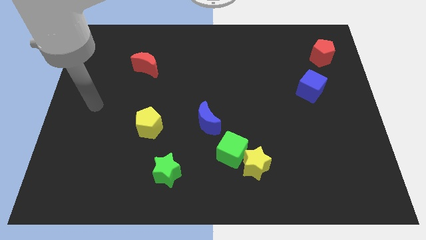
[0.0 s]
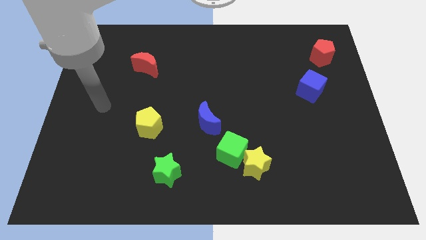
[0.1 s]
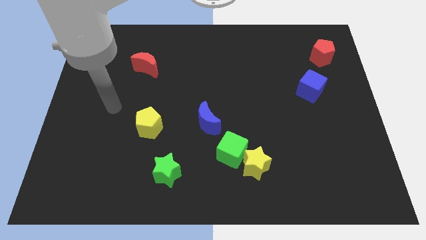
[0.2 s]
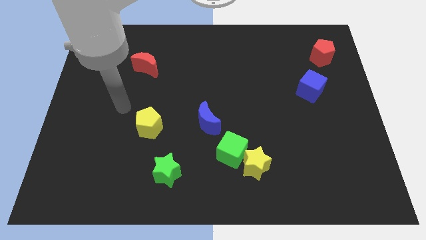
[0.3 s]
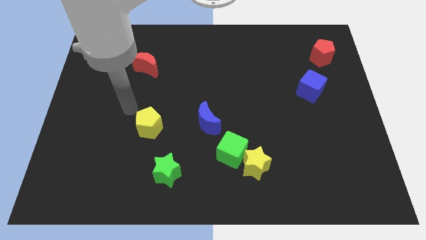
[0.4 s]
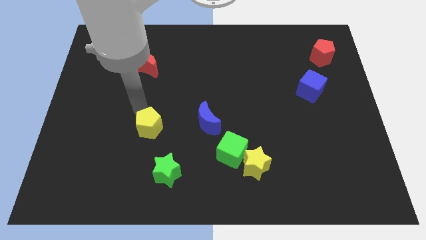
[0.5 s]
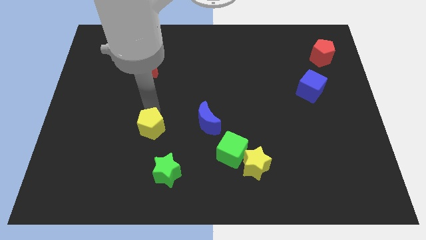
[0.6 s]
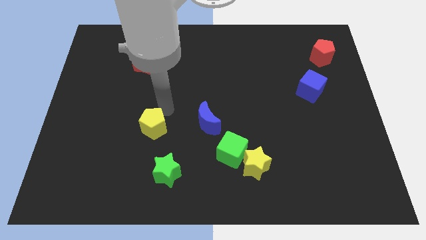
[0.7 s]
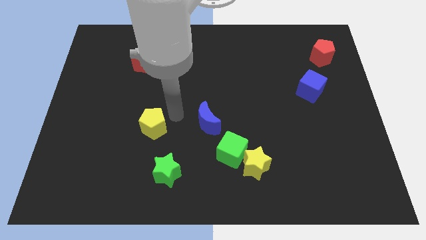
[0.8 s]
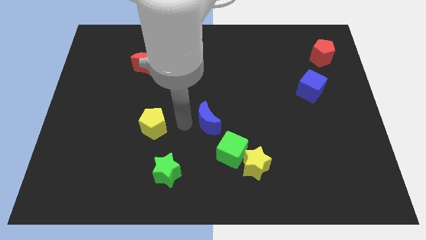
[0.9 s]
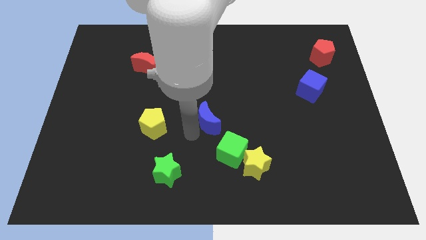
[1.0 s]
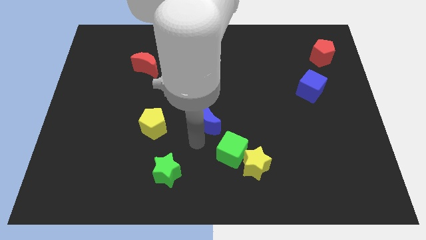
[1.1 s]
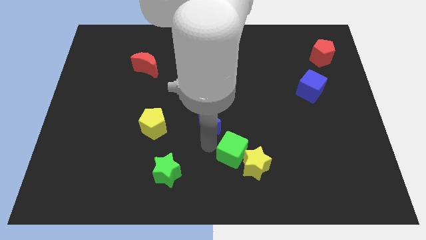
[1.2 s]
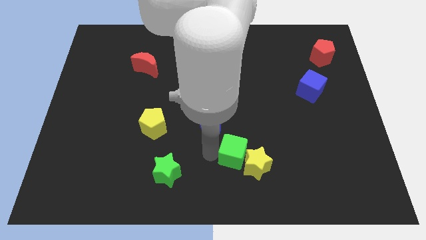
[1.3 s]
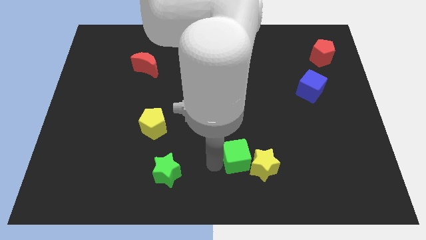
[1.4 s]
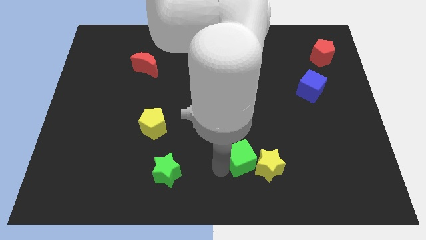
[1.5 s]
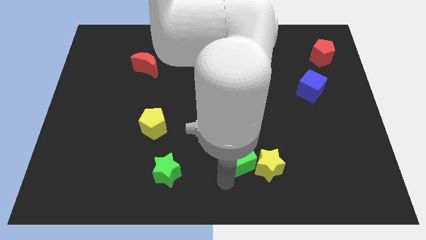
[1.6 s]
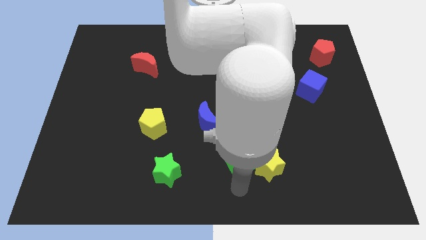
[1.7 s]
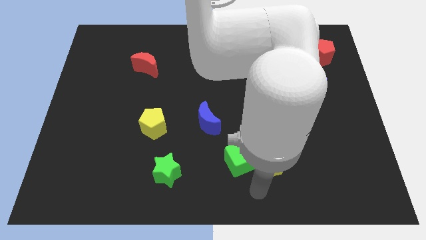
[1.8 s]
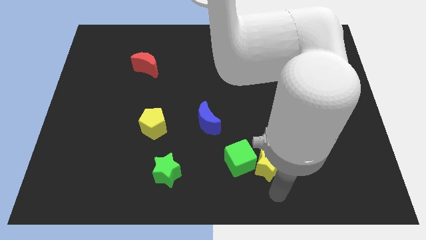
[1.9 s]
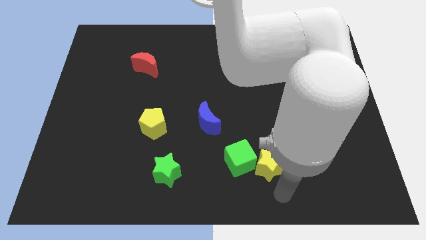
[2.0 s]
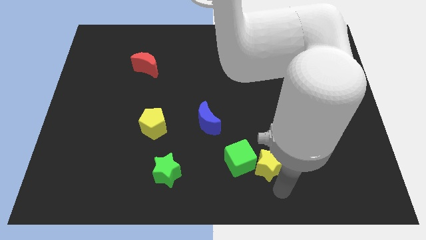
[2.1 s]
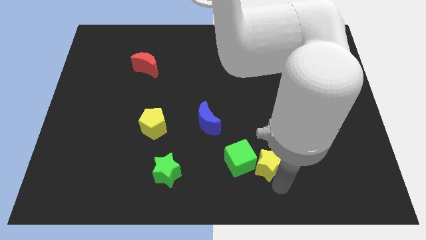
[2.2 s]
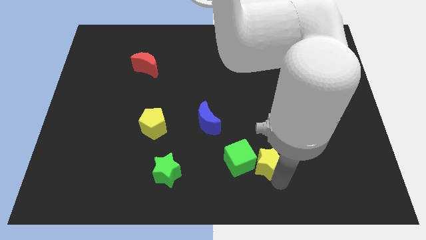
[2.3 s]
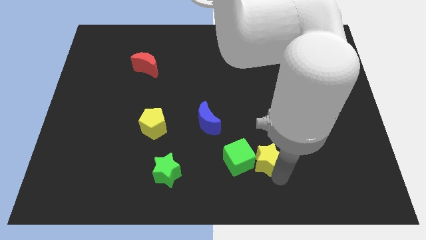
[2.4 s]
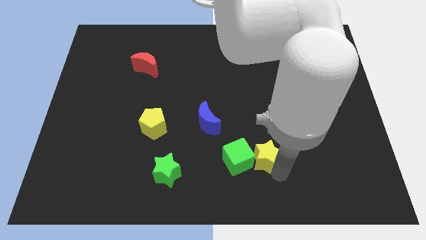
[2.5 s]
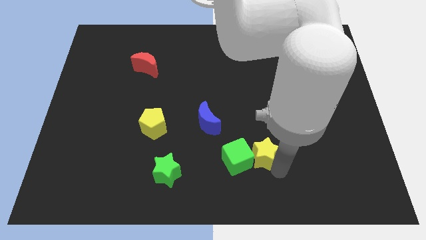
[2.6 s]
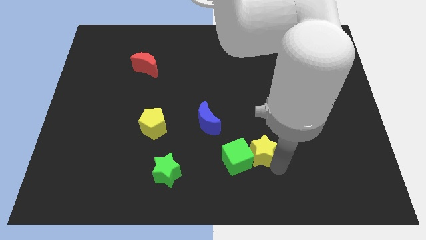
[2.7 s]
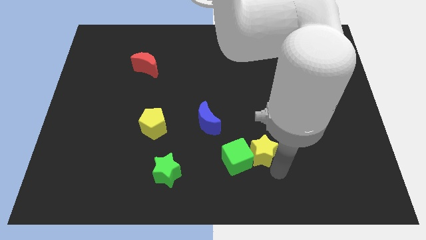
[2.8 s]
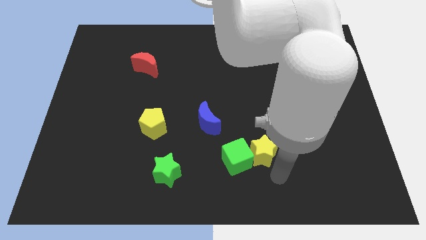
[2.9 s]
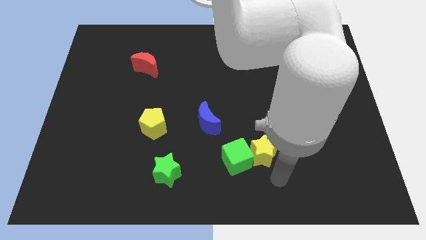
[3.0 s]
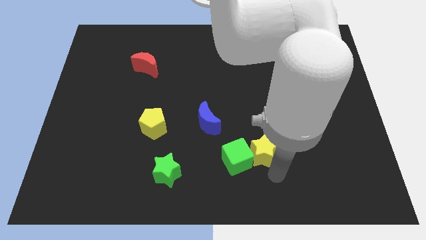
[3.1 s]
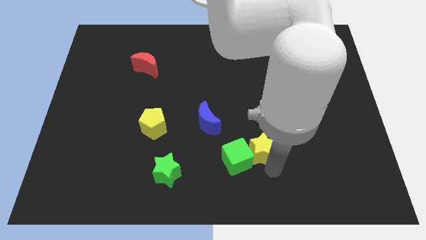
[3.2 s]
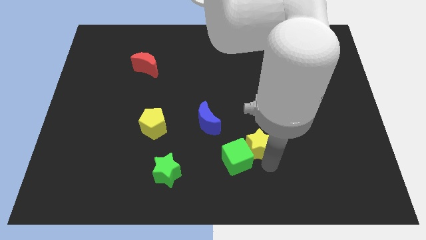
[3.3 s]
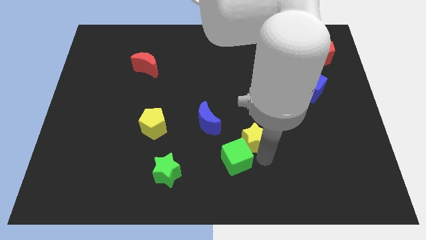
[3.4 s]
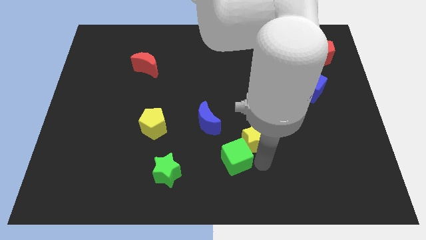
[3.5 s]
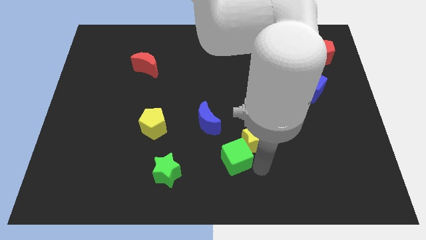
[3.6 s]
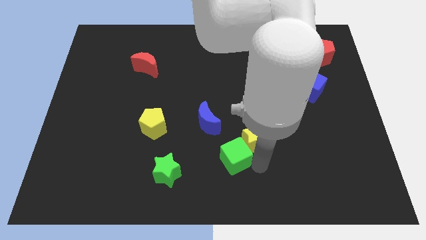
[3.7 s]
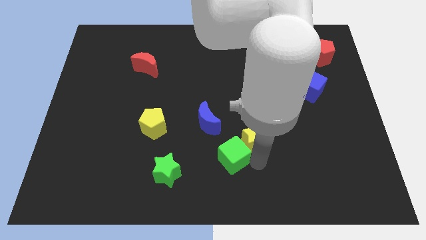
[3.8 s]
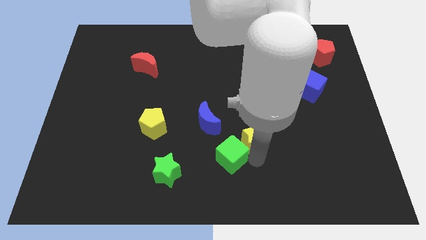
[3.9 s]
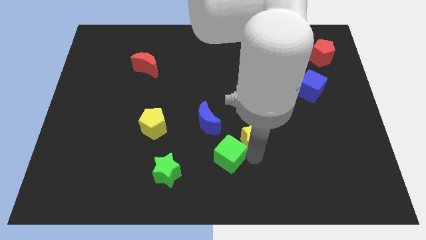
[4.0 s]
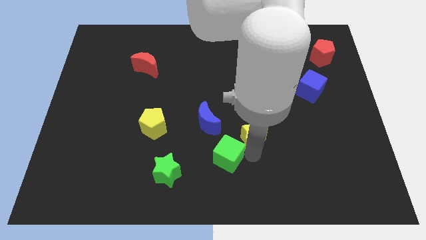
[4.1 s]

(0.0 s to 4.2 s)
slide the yellow star somewhat upwards

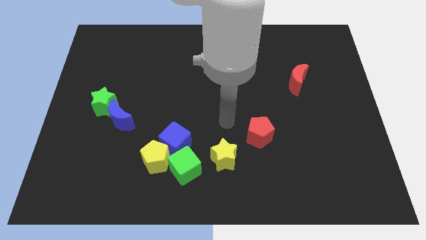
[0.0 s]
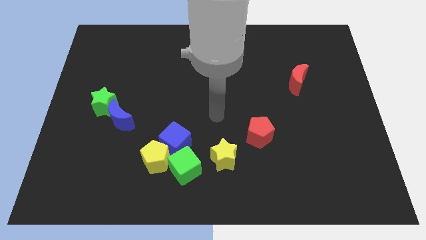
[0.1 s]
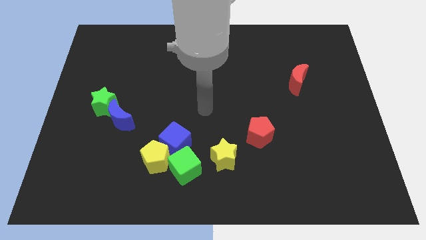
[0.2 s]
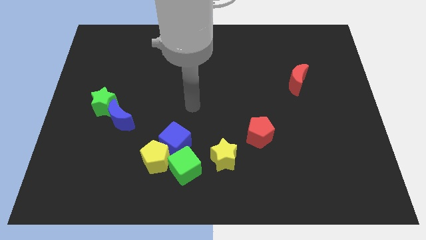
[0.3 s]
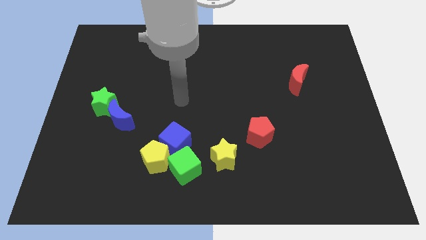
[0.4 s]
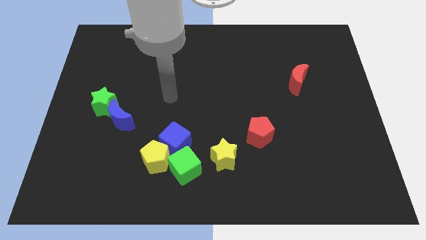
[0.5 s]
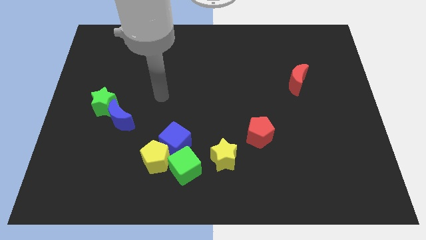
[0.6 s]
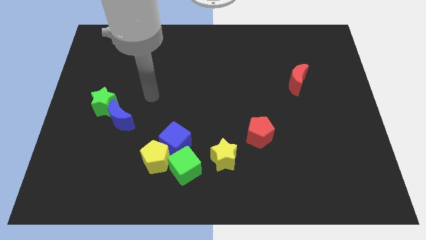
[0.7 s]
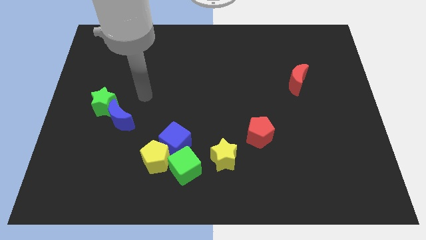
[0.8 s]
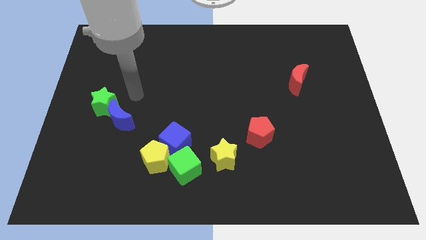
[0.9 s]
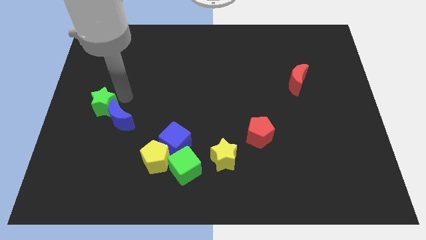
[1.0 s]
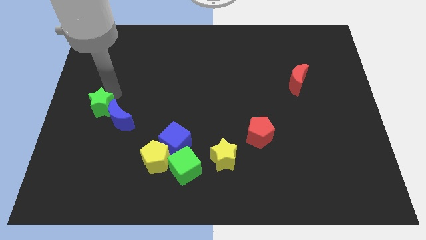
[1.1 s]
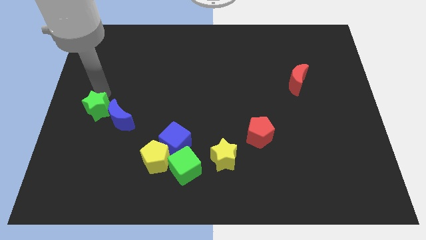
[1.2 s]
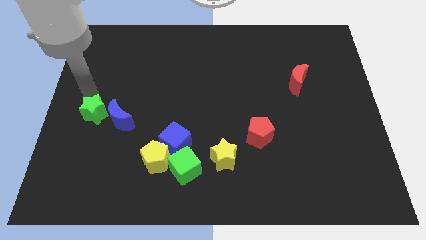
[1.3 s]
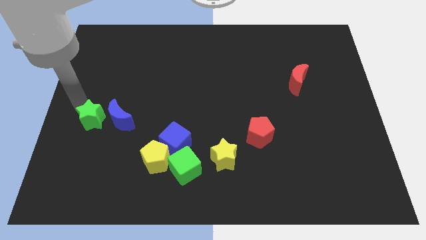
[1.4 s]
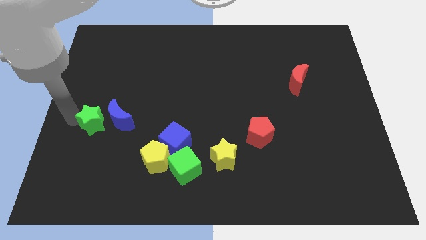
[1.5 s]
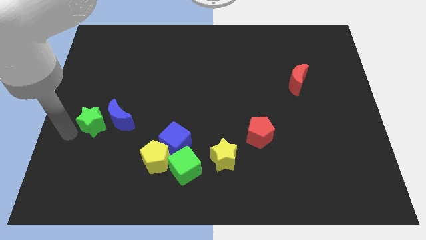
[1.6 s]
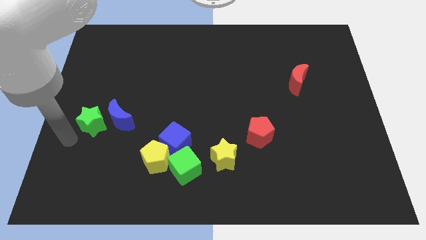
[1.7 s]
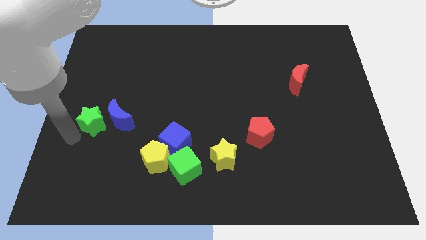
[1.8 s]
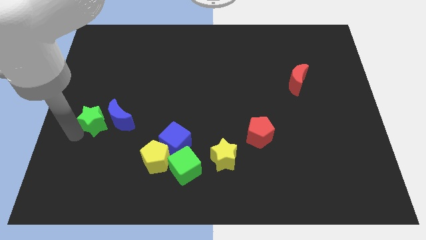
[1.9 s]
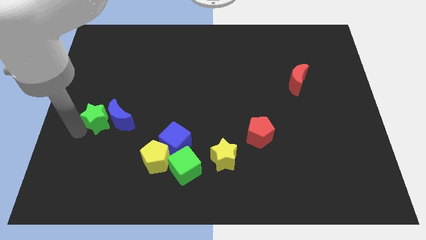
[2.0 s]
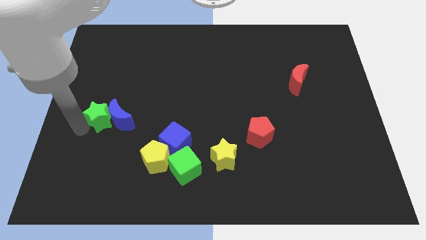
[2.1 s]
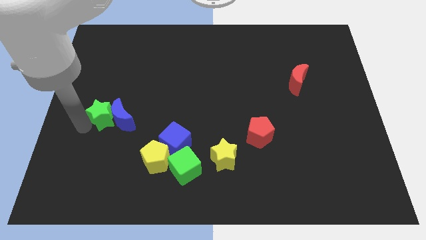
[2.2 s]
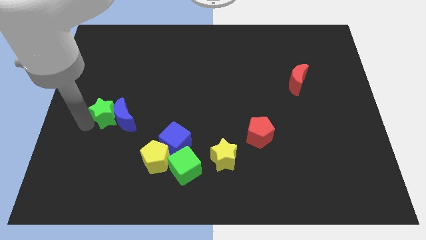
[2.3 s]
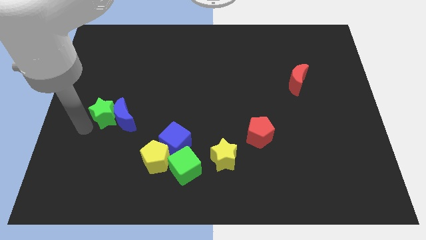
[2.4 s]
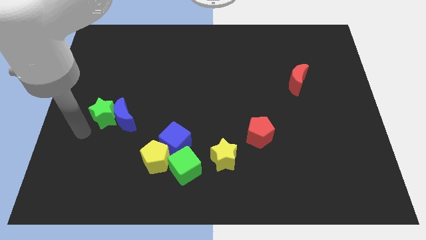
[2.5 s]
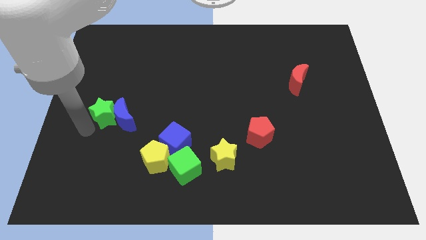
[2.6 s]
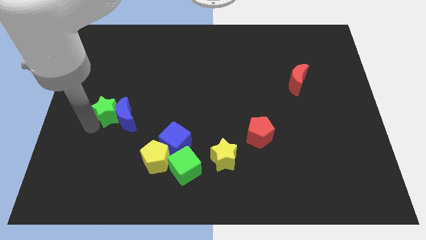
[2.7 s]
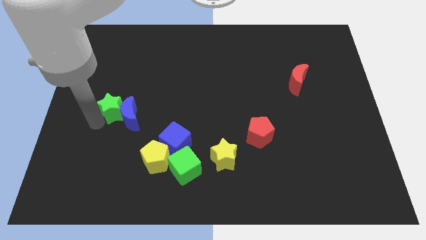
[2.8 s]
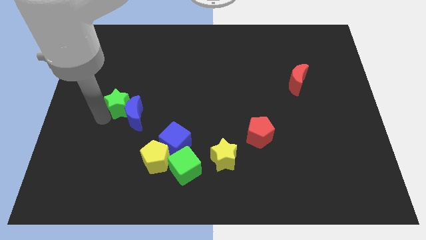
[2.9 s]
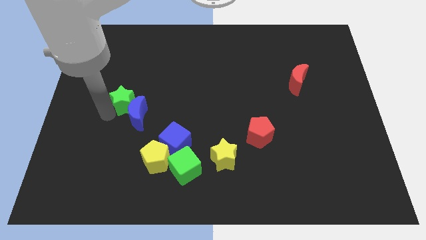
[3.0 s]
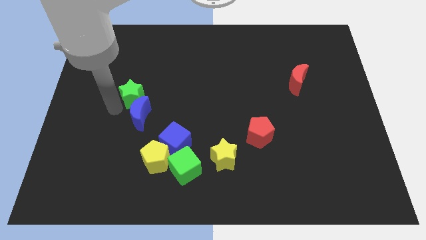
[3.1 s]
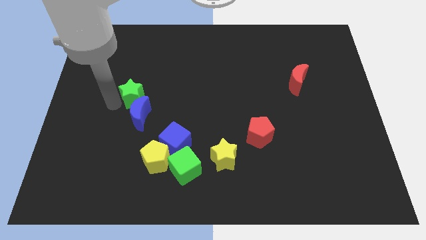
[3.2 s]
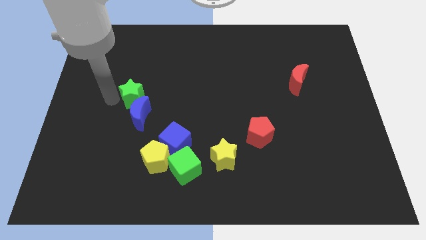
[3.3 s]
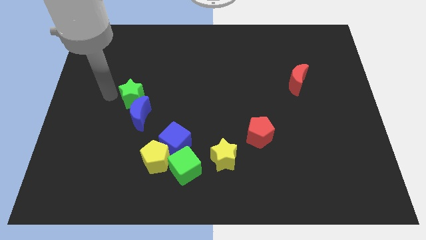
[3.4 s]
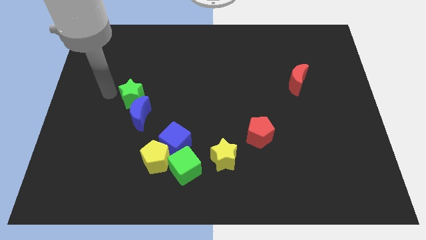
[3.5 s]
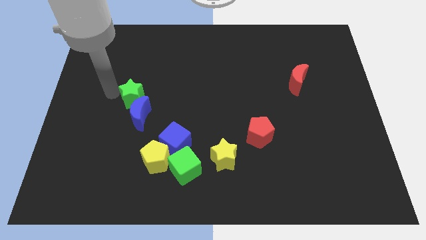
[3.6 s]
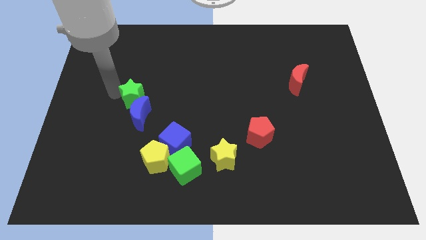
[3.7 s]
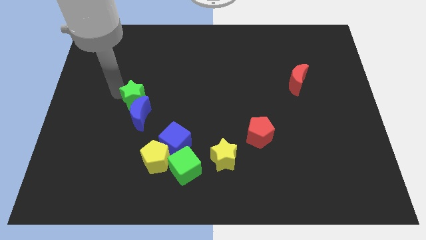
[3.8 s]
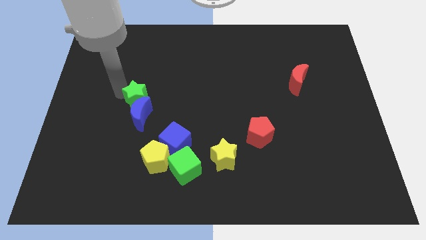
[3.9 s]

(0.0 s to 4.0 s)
slightly move the green star to the right
